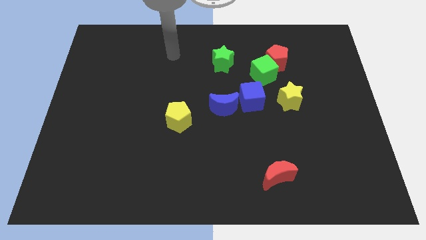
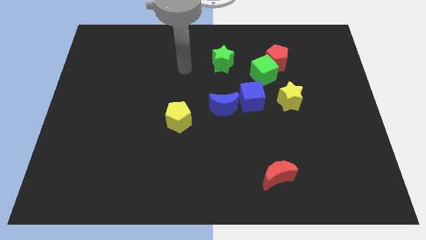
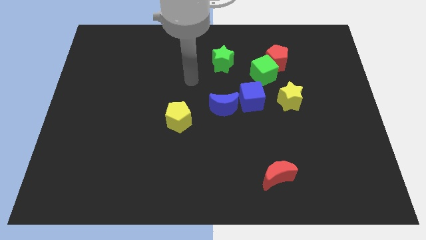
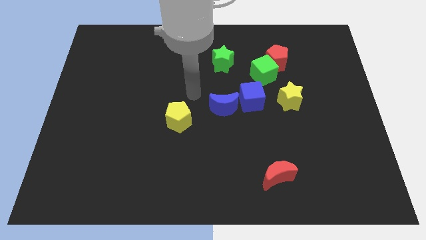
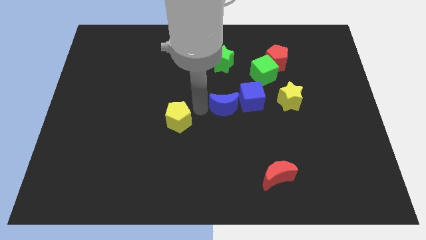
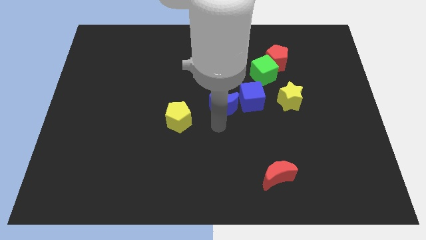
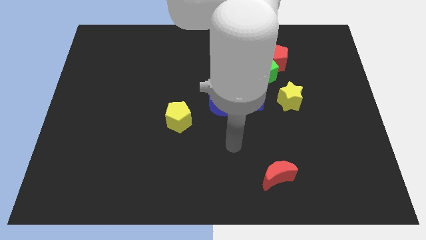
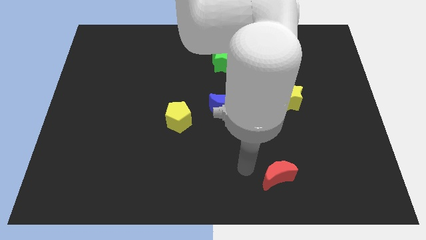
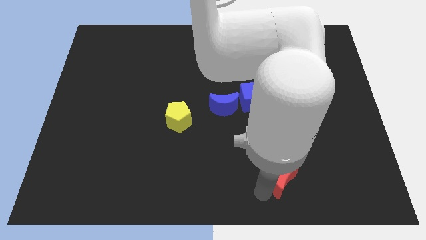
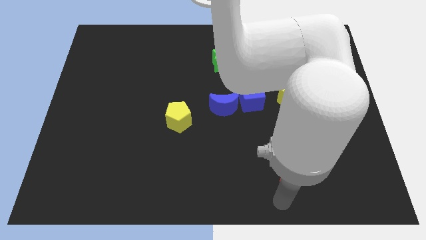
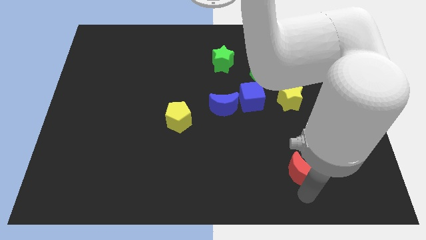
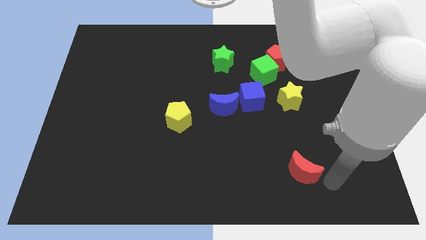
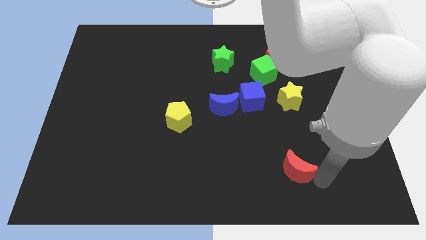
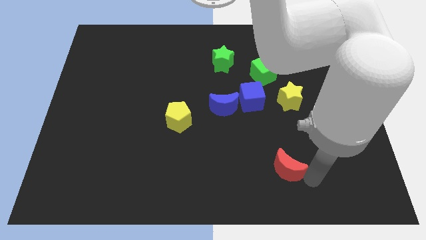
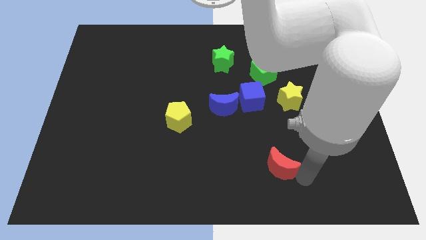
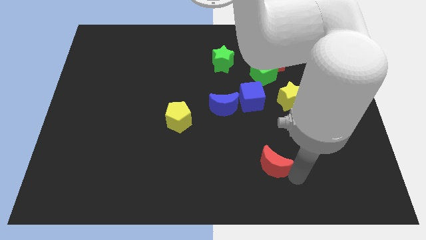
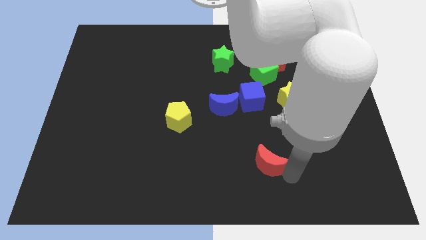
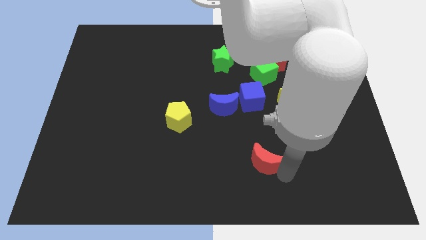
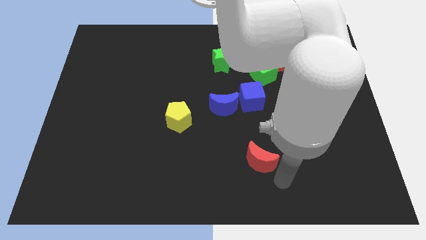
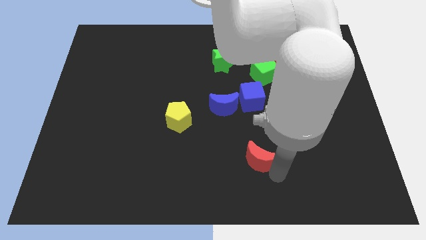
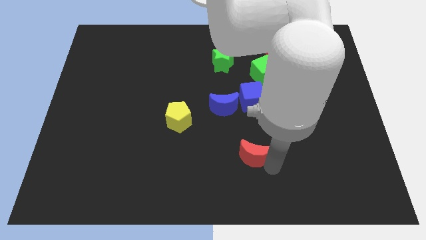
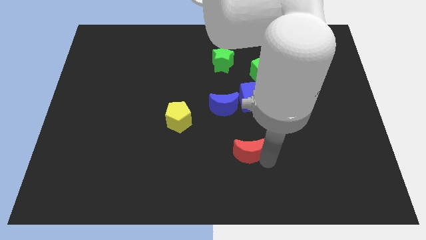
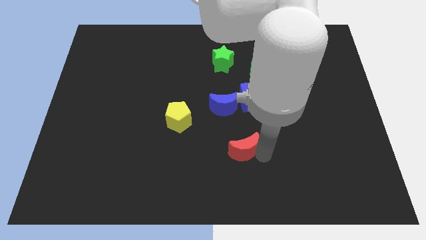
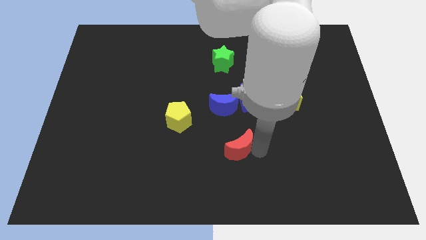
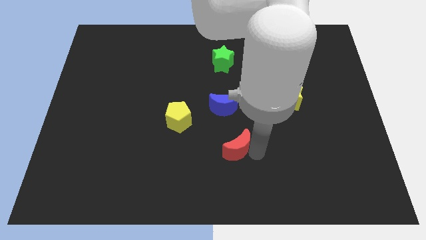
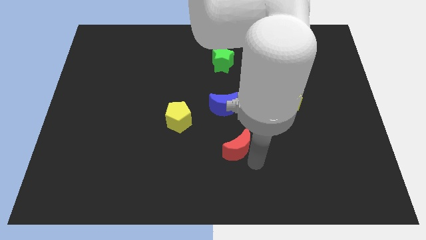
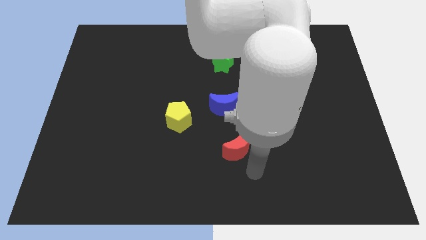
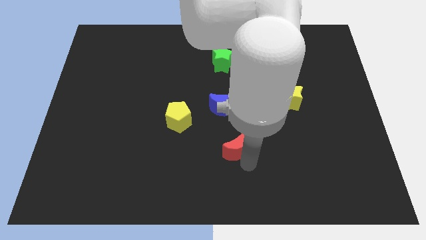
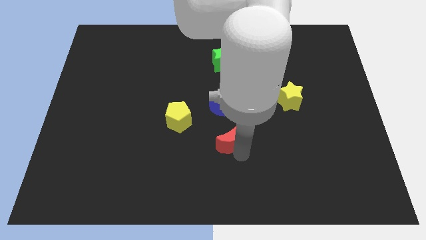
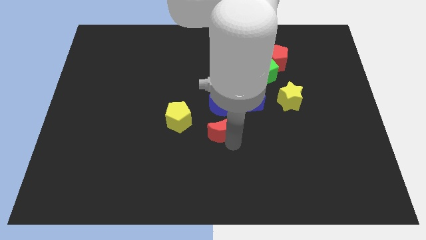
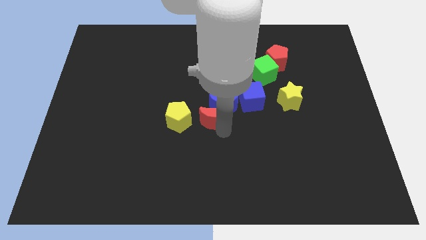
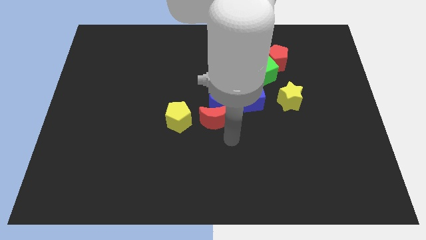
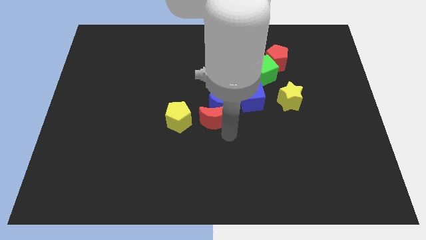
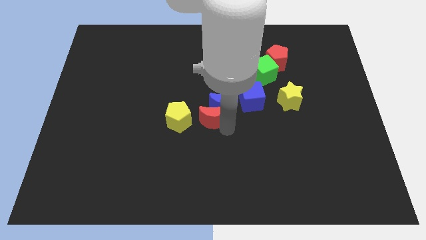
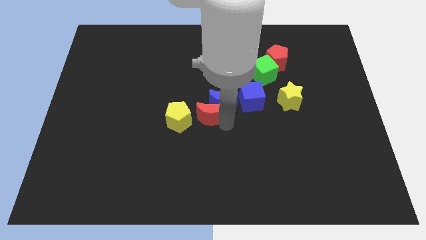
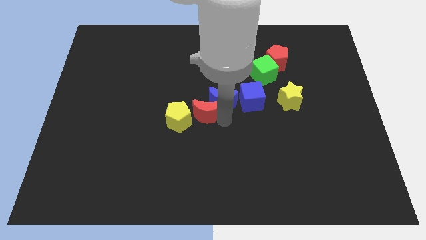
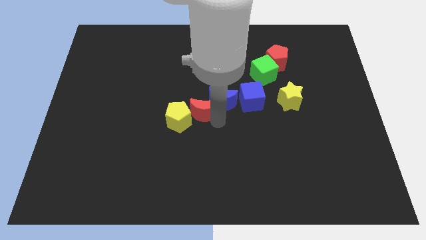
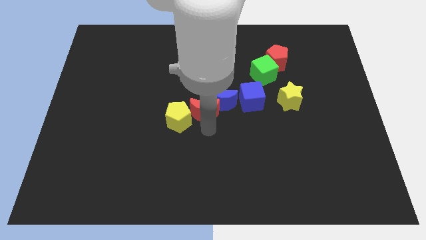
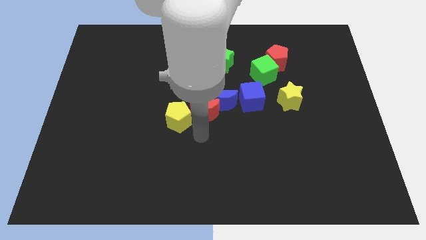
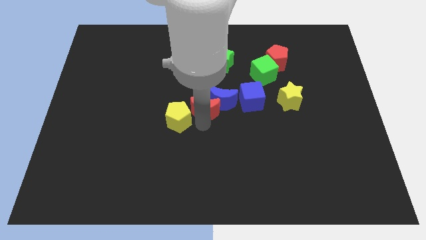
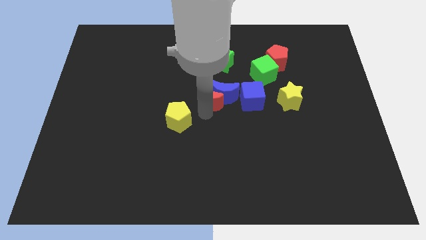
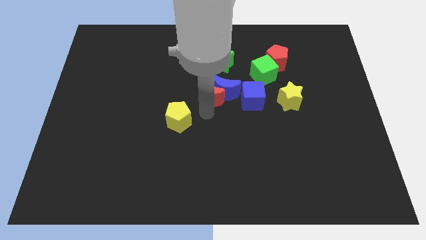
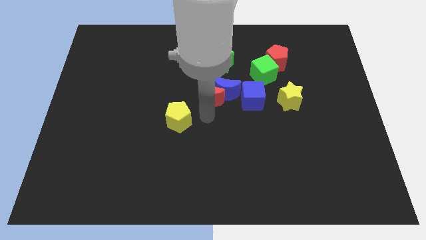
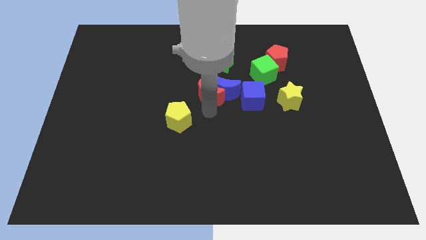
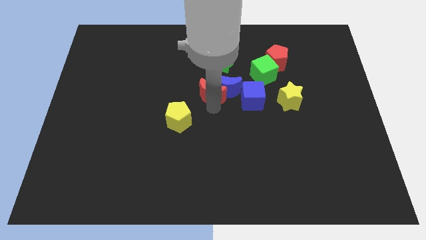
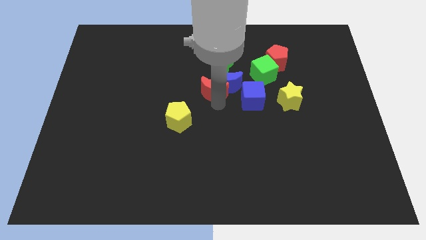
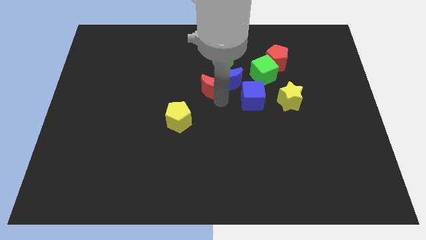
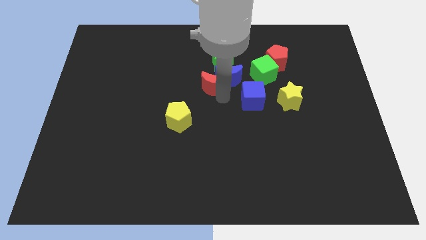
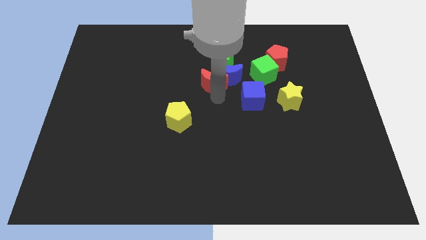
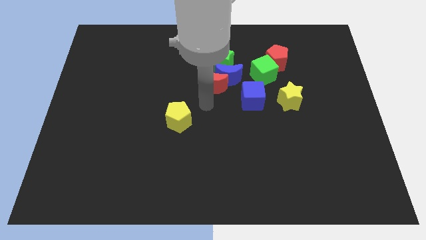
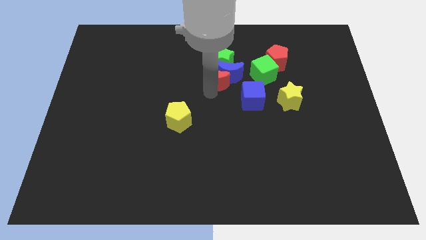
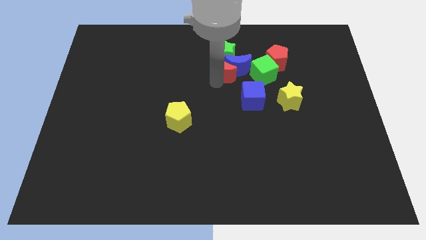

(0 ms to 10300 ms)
move the red moon towards the green star

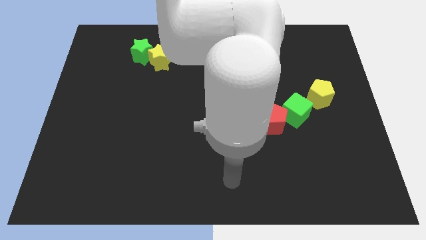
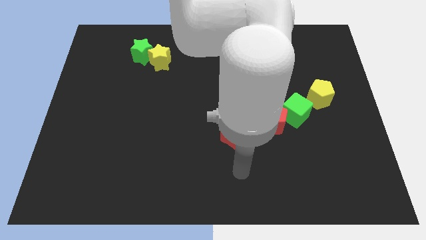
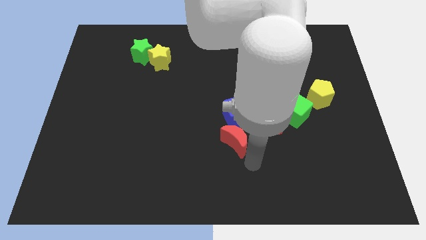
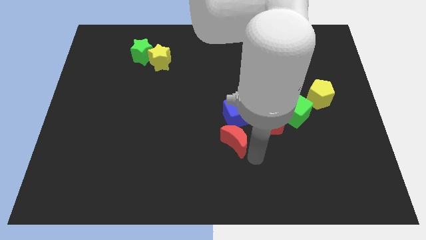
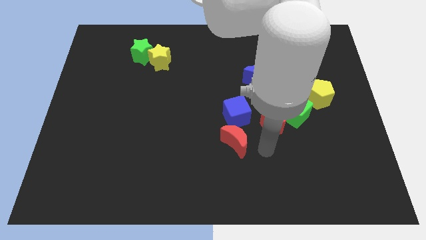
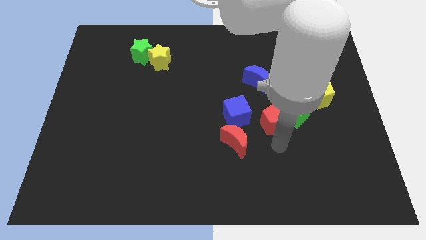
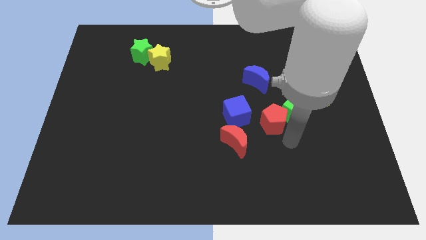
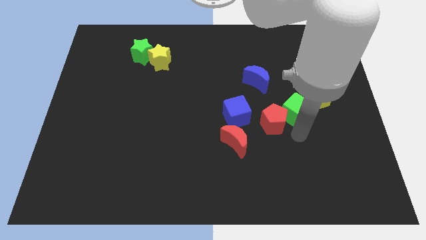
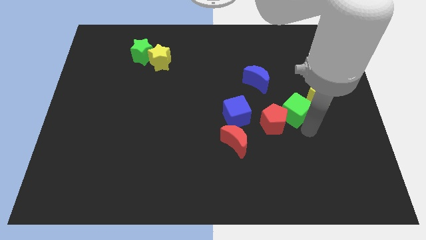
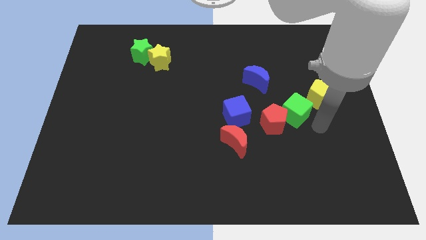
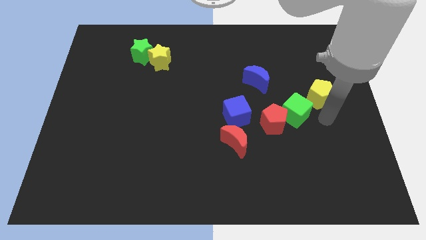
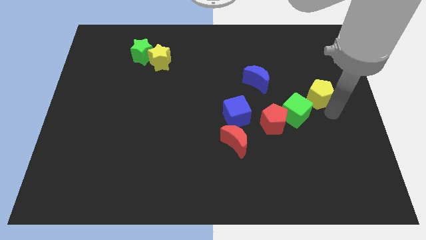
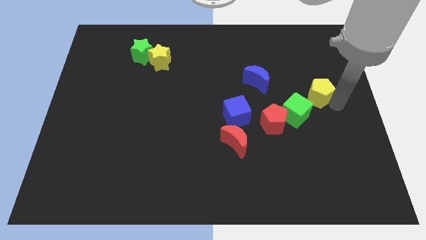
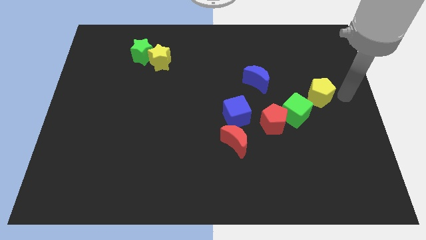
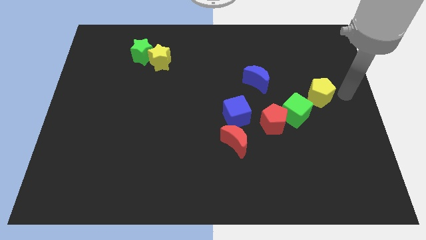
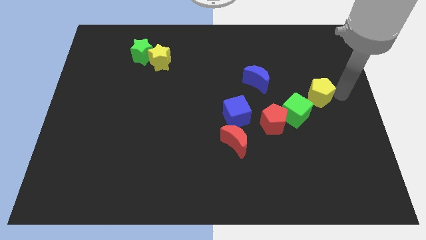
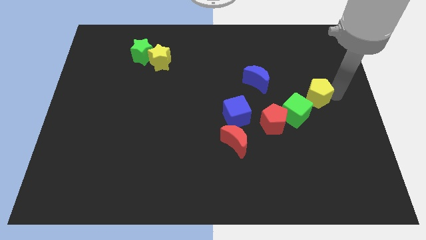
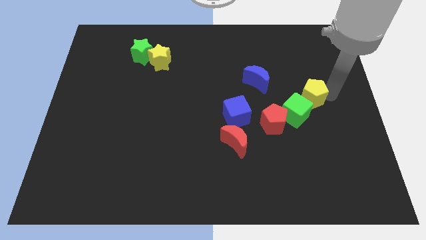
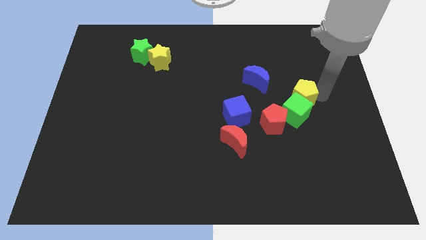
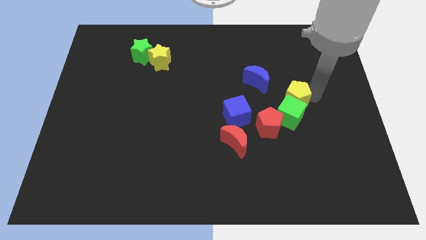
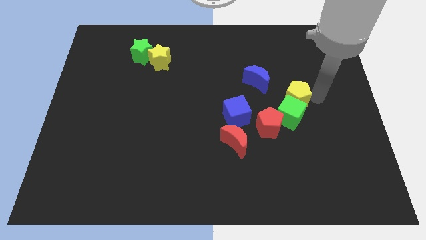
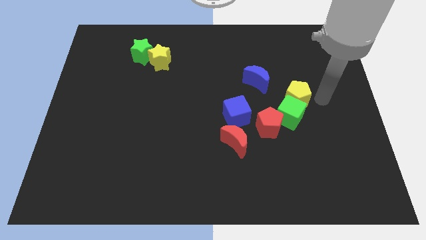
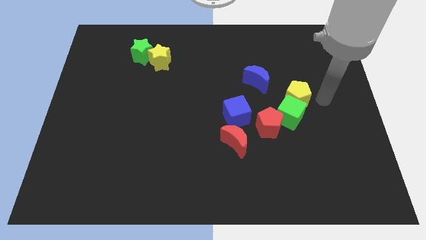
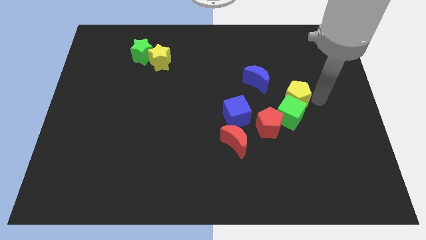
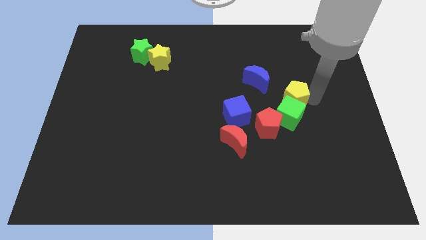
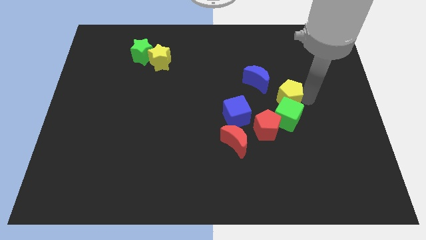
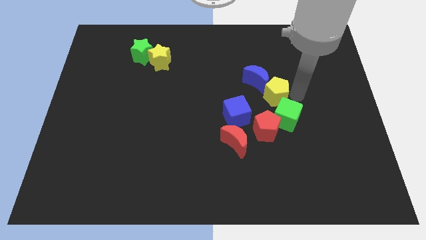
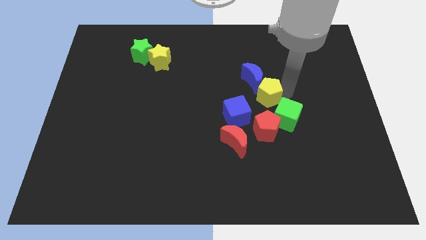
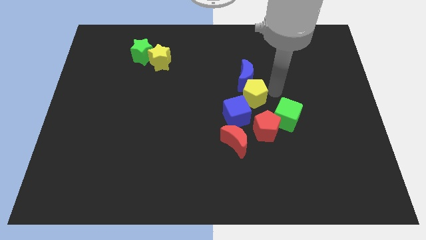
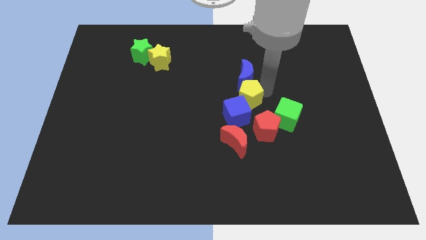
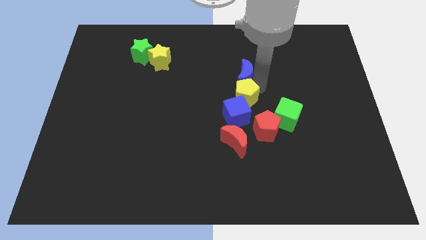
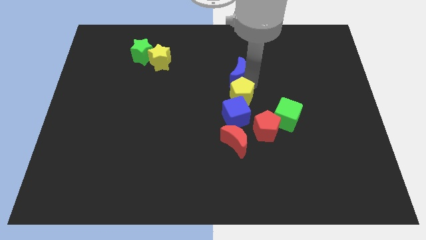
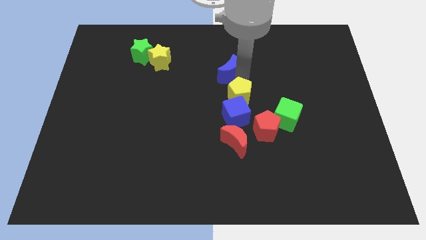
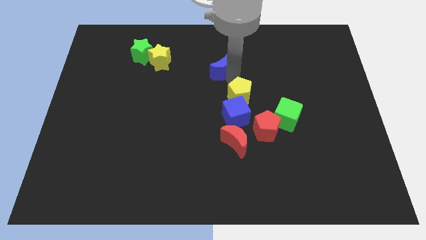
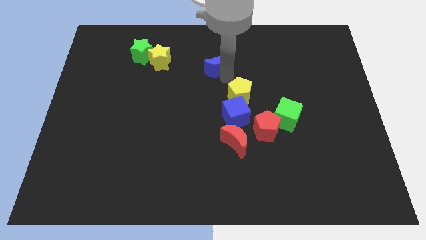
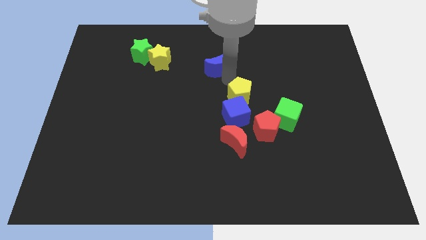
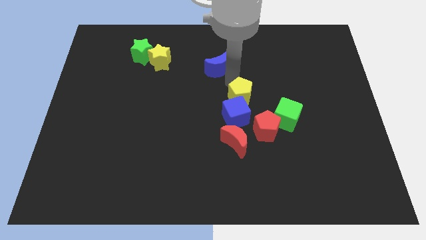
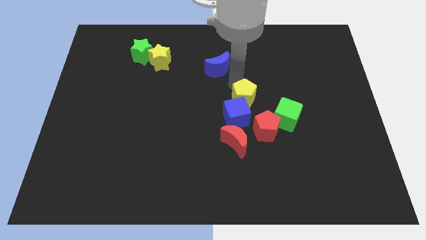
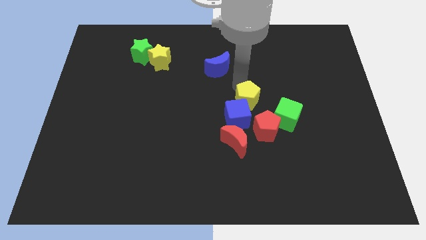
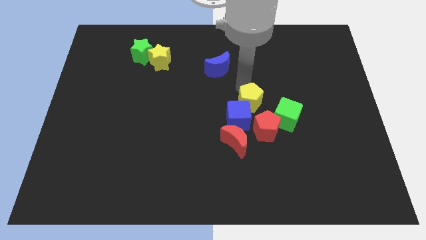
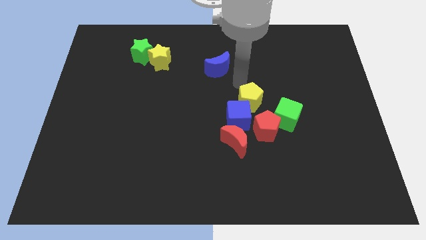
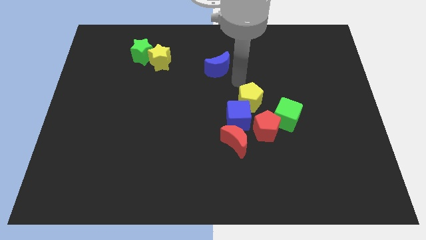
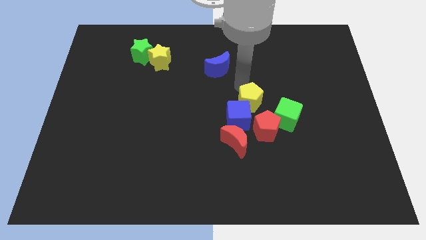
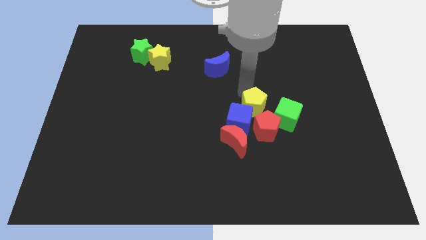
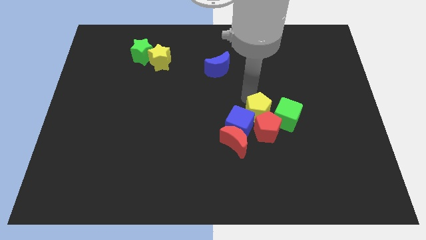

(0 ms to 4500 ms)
put the yellow pentagon to the red pentagon
